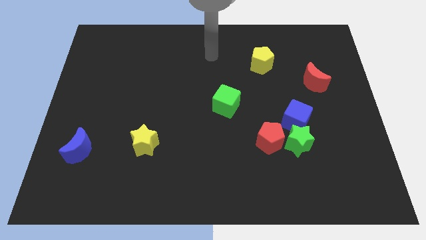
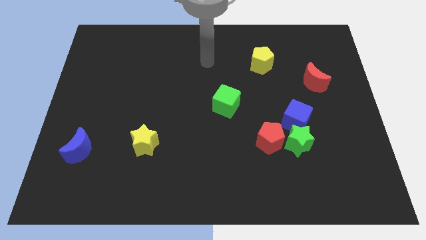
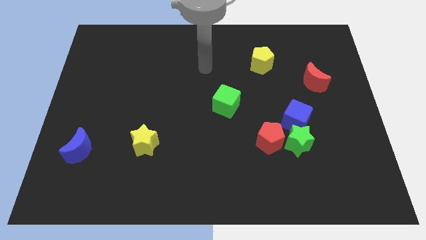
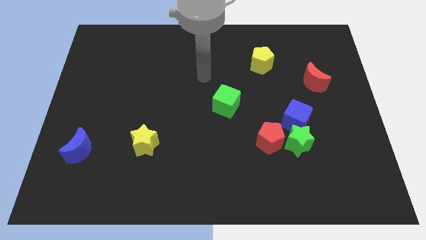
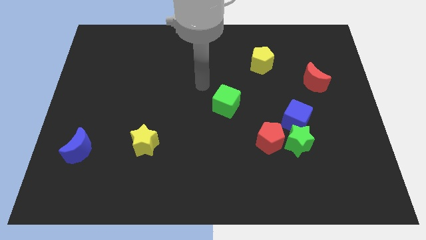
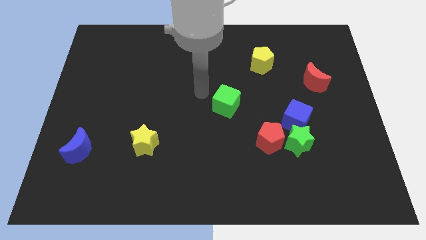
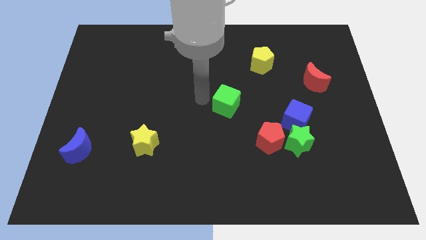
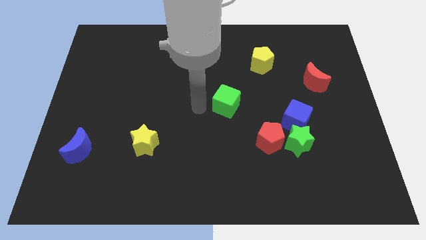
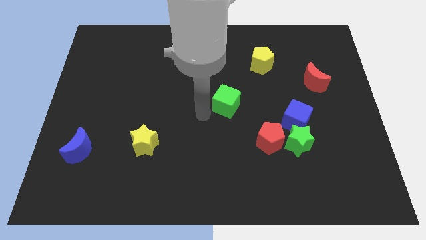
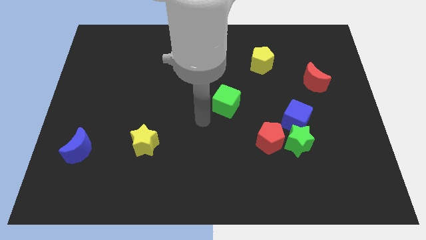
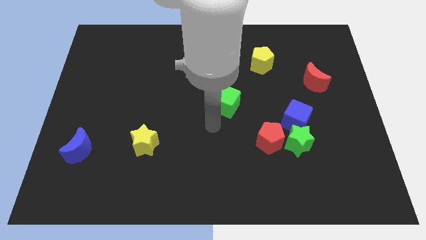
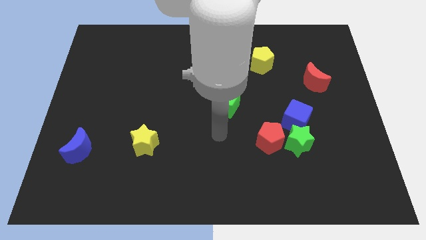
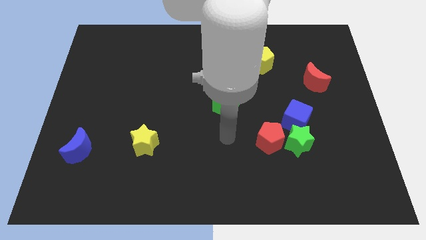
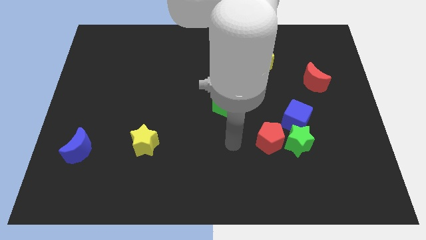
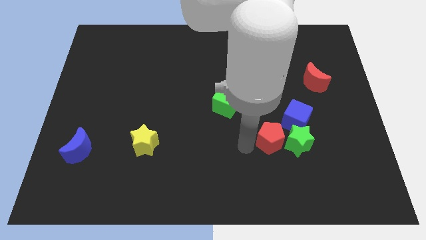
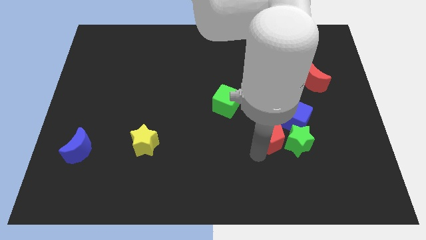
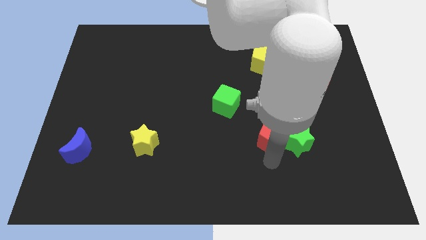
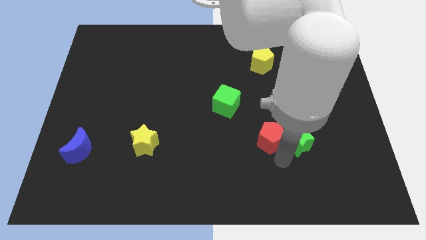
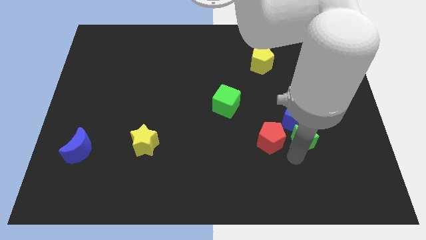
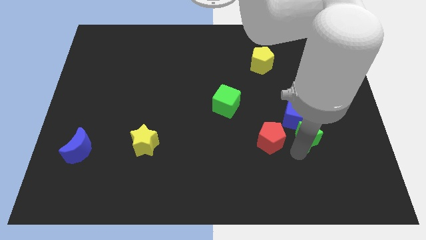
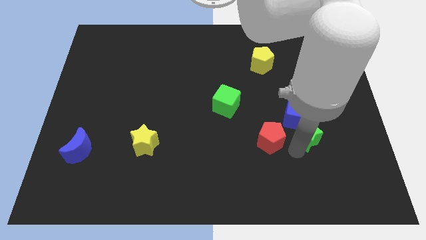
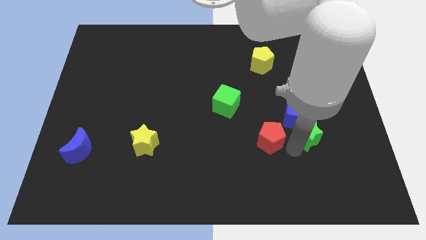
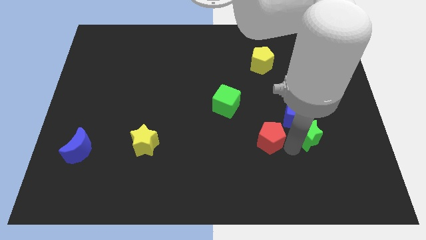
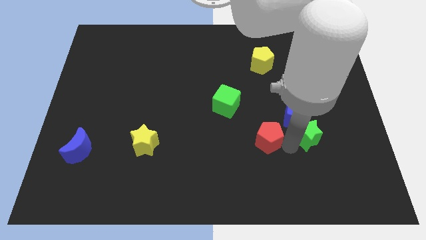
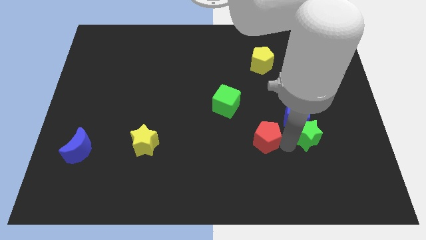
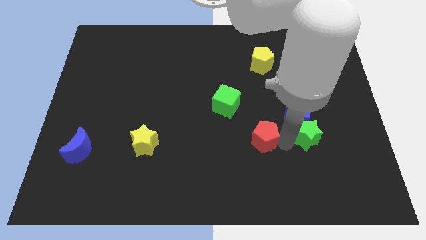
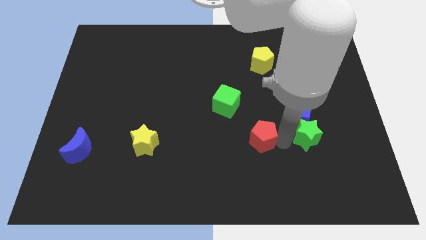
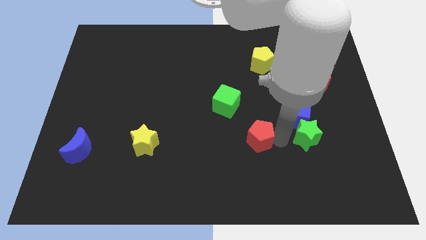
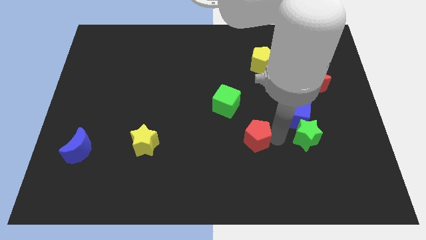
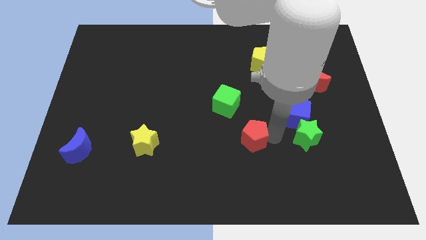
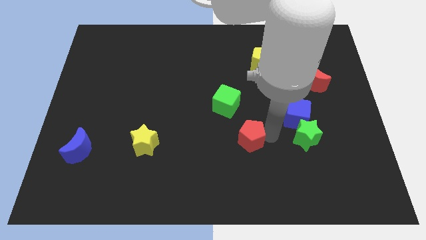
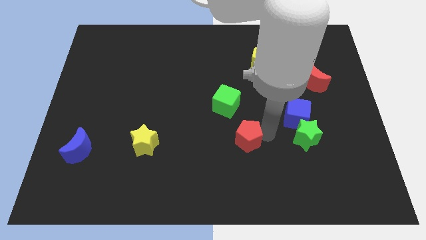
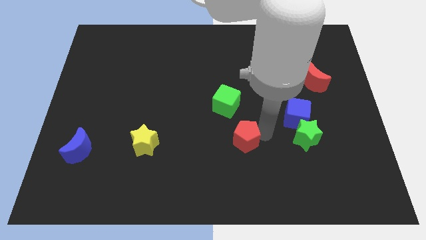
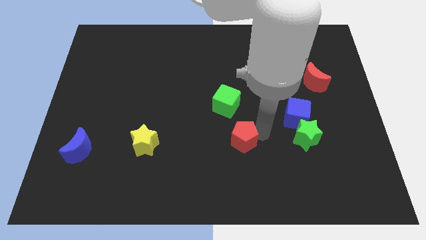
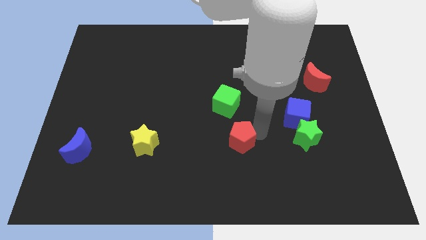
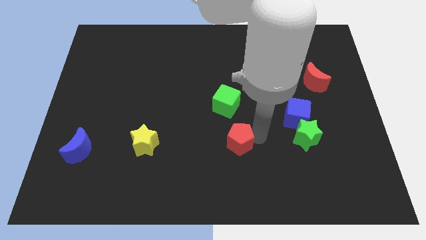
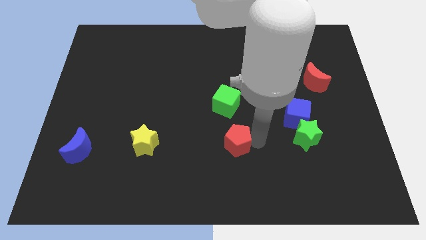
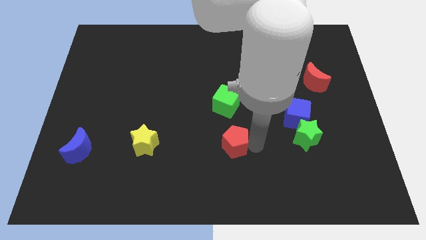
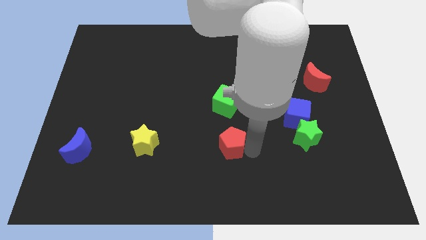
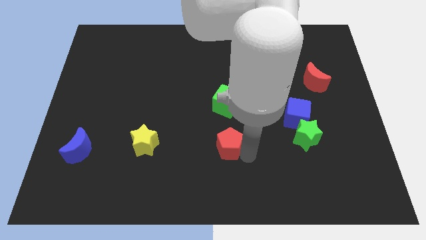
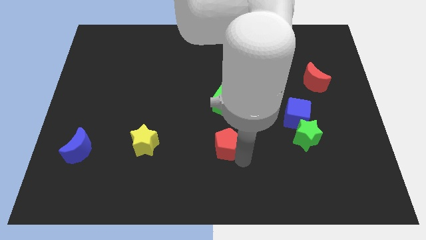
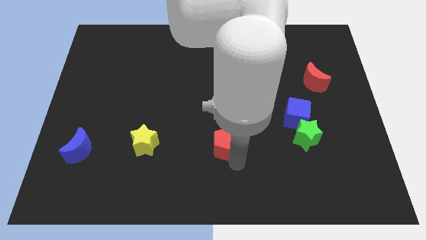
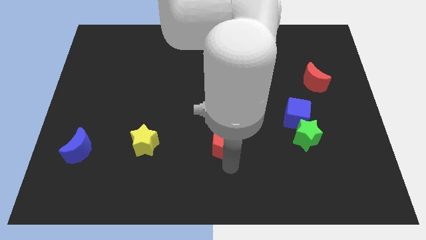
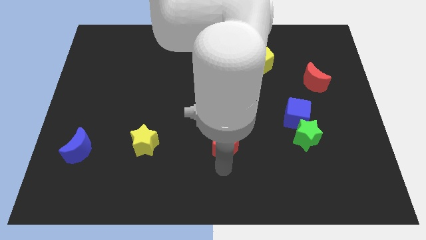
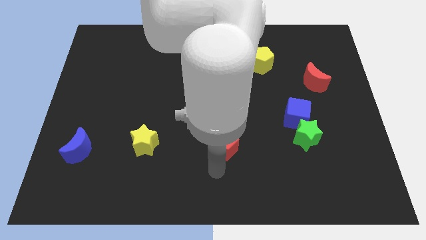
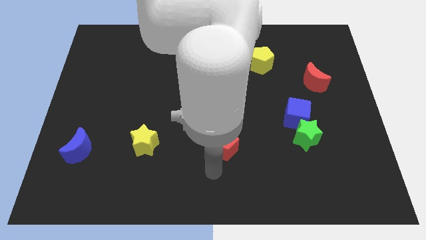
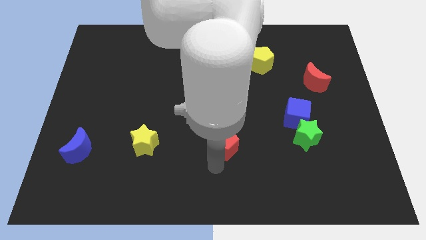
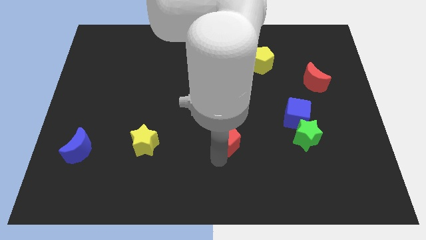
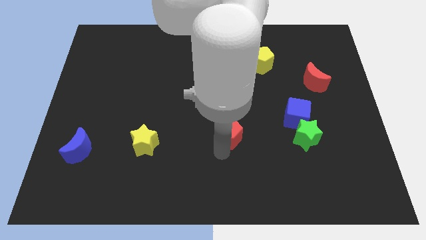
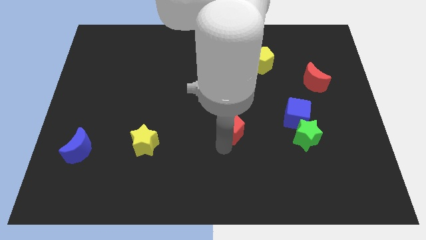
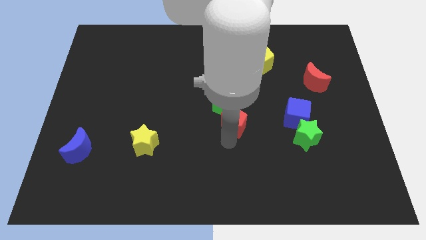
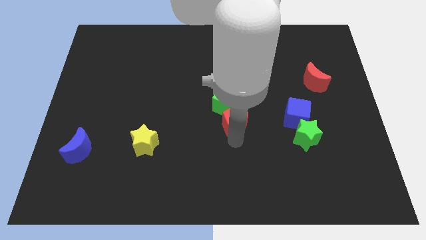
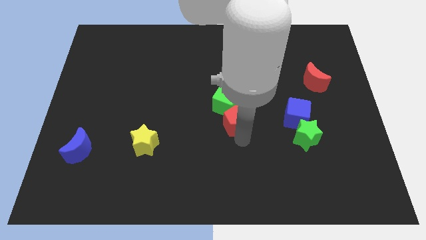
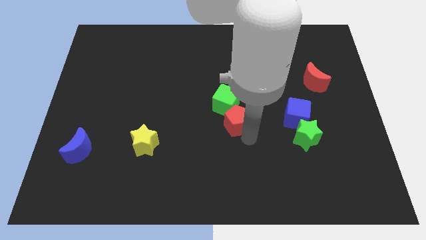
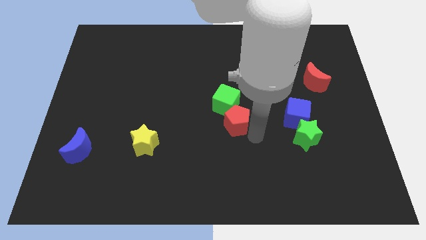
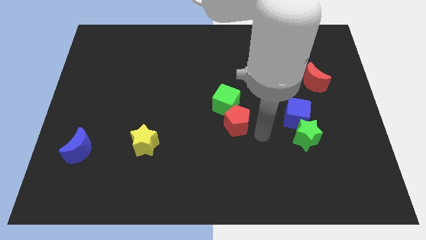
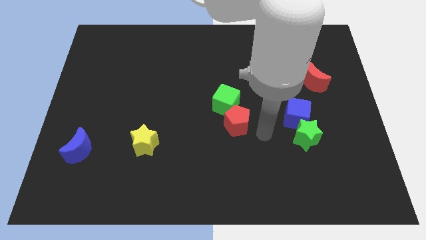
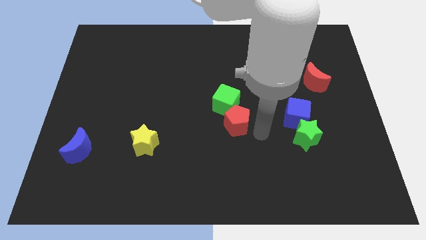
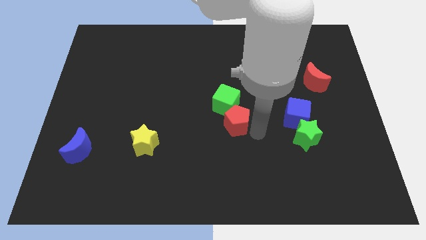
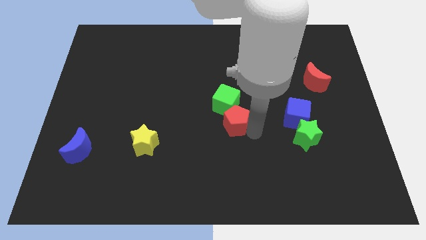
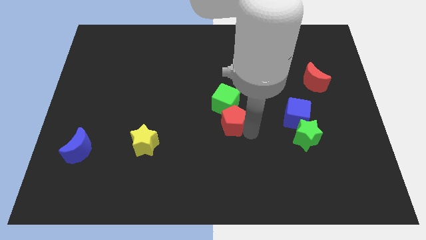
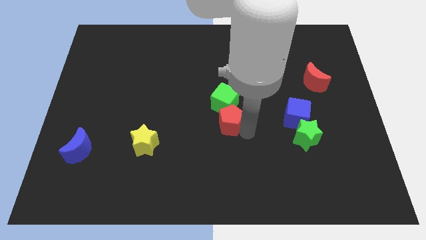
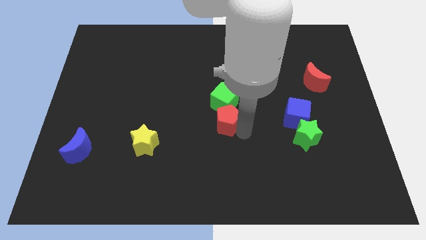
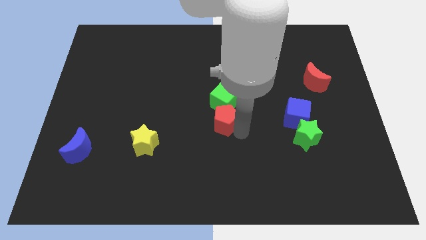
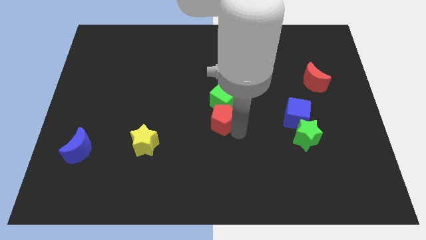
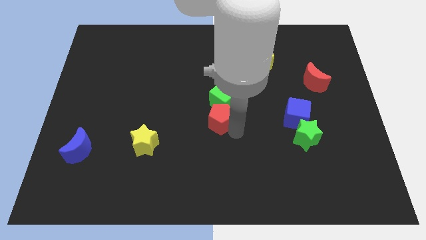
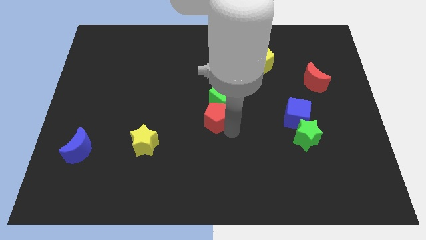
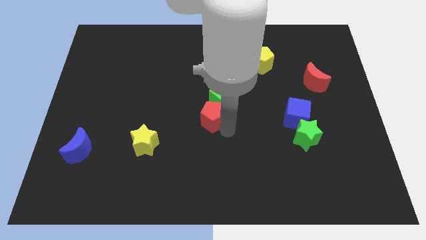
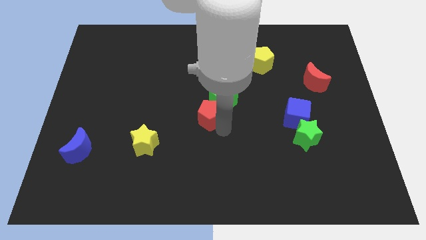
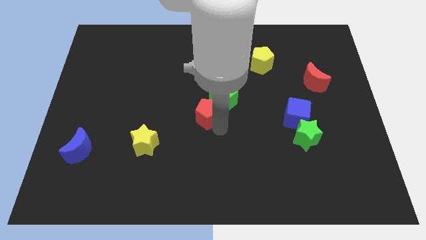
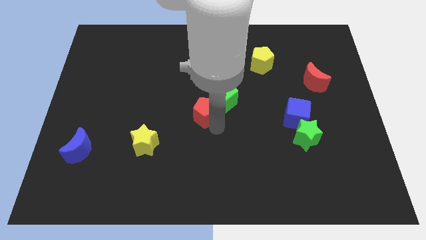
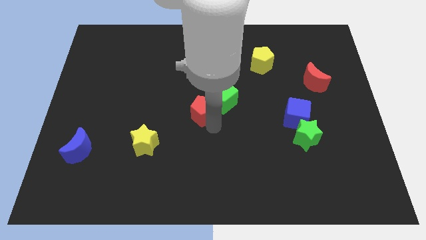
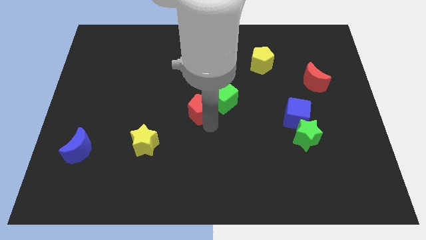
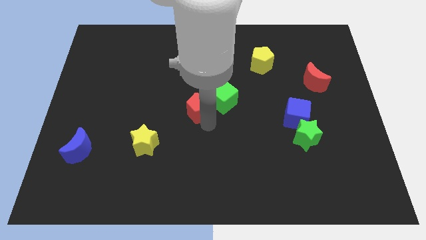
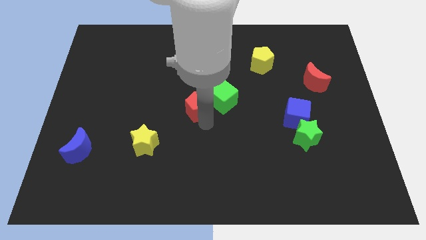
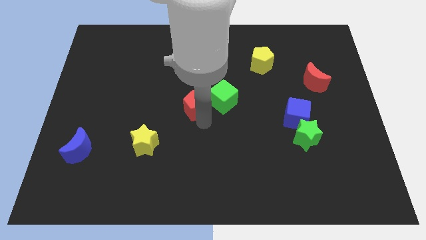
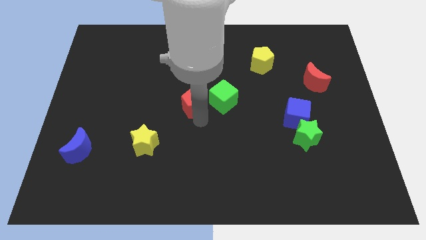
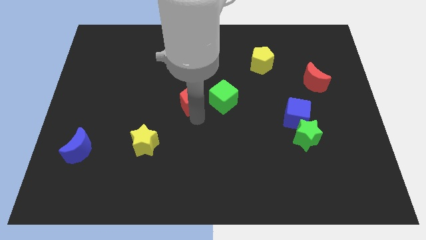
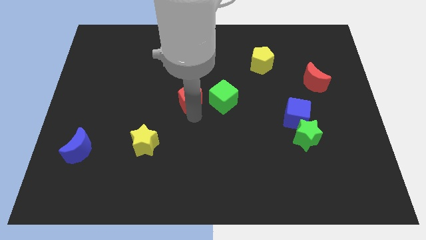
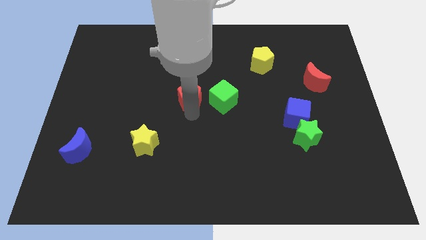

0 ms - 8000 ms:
move the red pentagon upwards and to the left

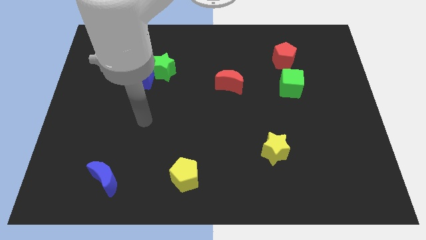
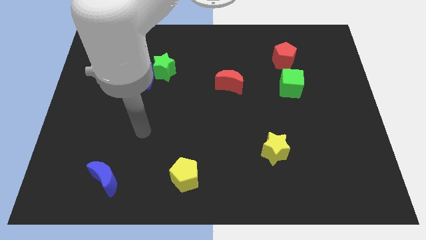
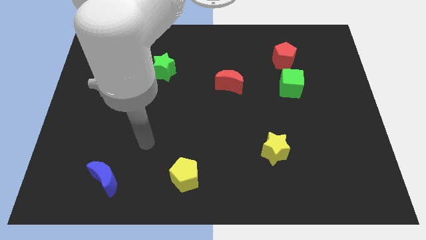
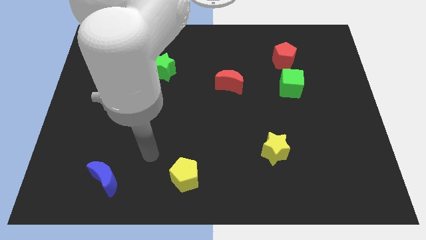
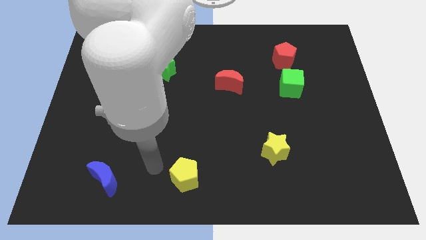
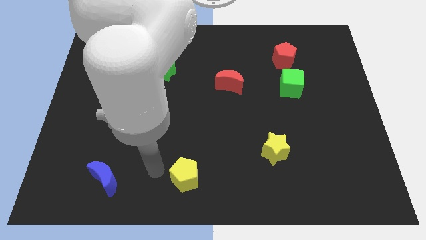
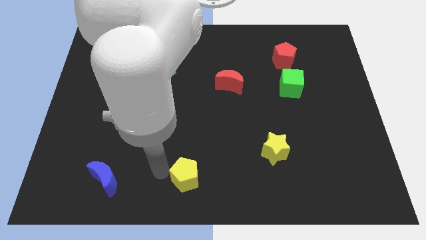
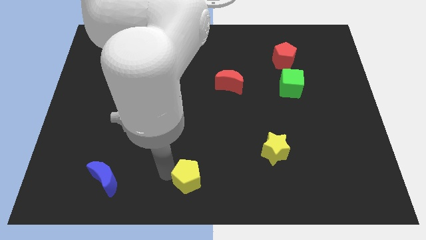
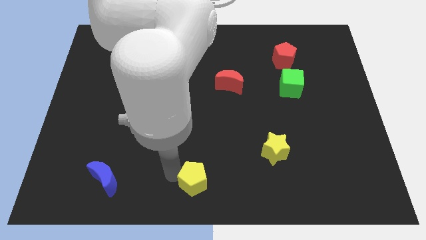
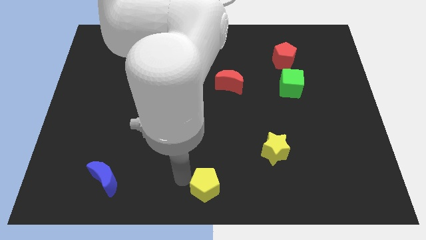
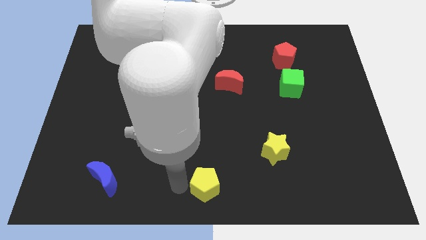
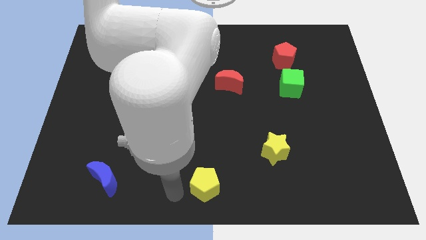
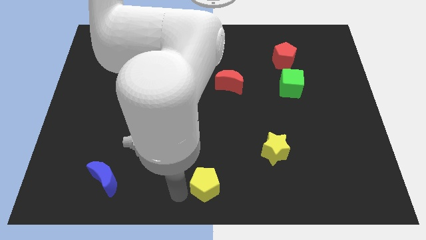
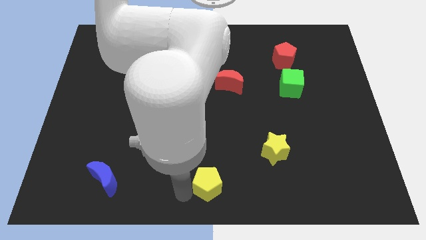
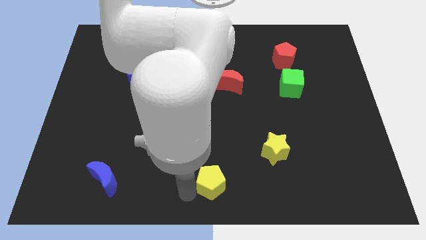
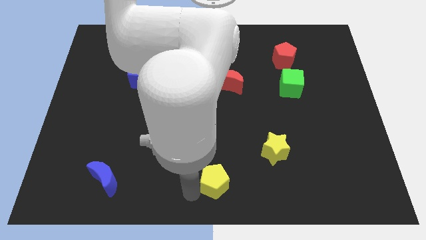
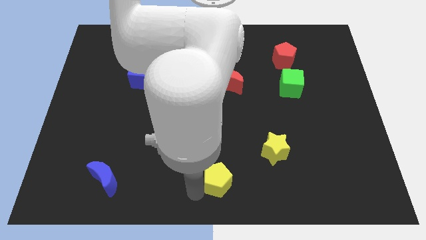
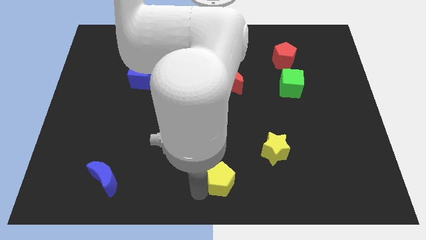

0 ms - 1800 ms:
slightly slide the yellow pentagon right
